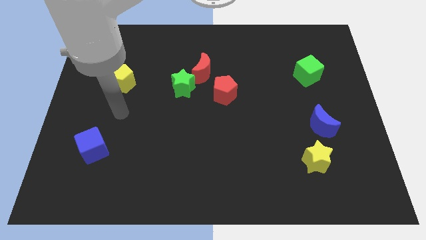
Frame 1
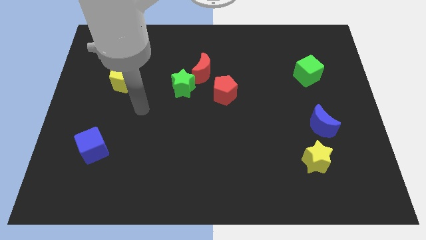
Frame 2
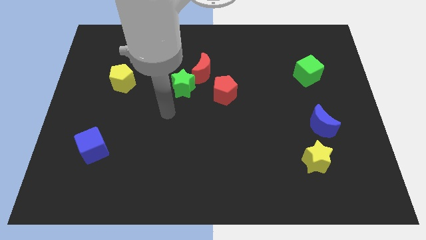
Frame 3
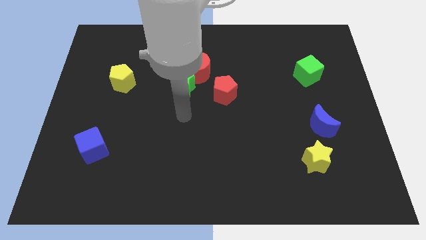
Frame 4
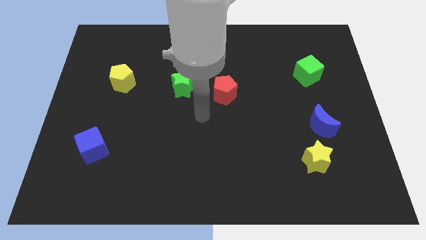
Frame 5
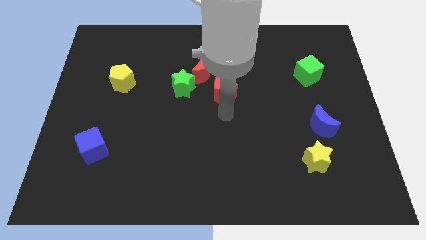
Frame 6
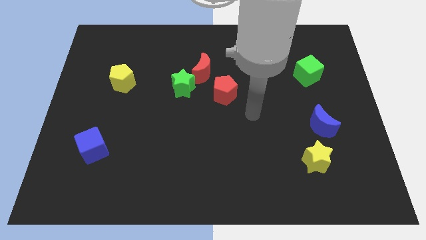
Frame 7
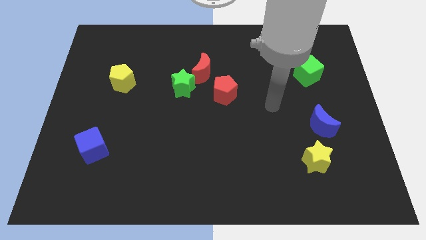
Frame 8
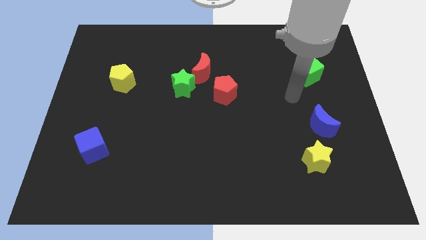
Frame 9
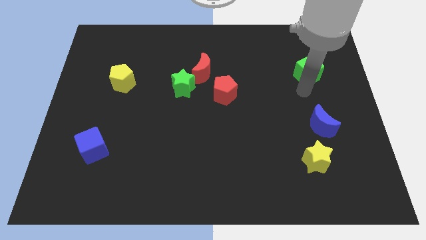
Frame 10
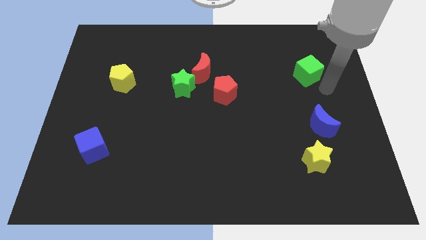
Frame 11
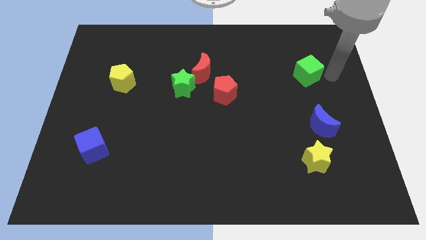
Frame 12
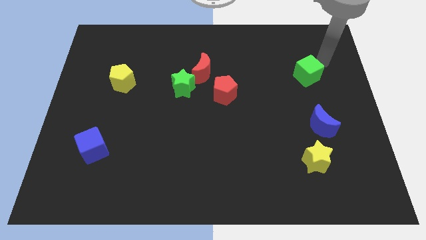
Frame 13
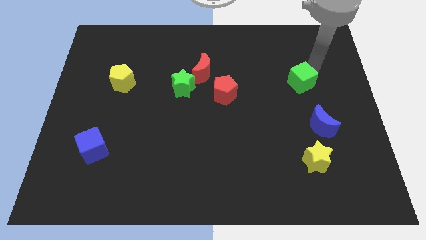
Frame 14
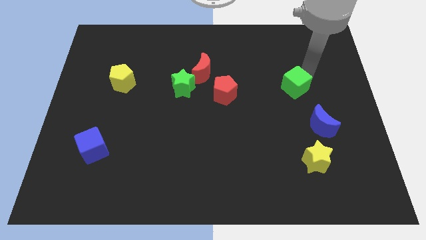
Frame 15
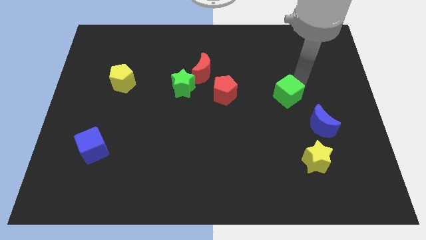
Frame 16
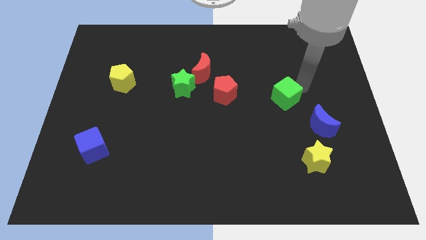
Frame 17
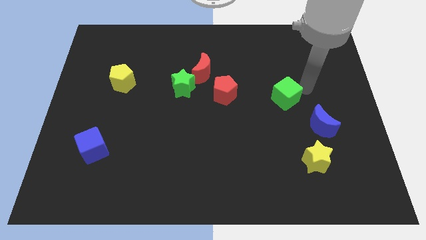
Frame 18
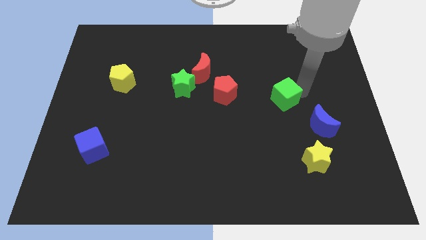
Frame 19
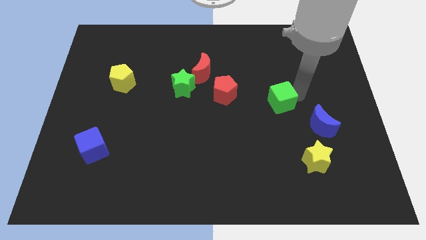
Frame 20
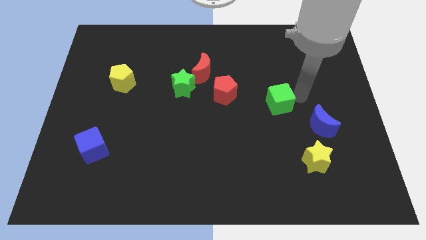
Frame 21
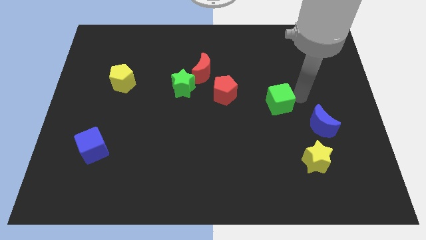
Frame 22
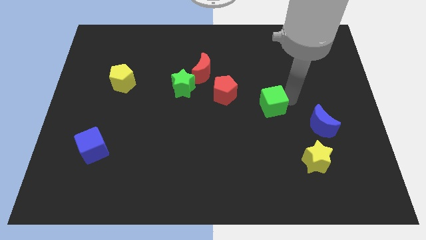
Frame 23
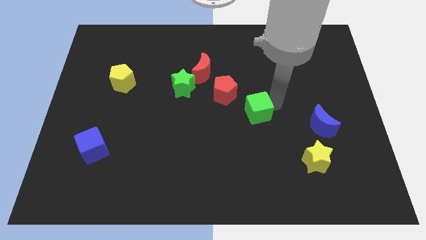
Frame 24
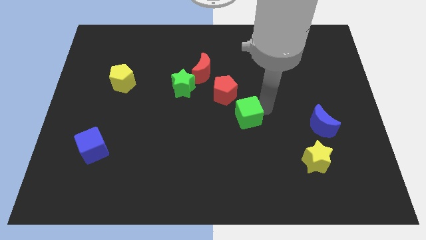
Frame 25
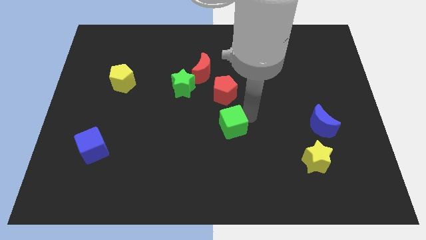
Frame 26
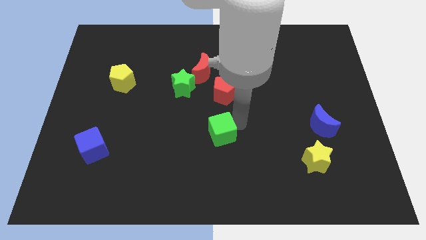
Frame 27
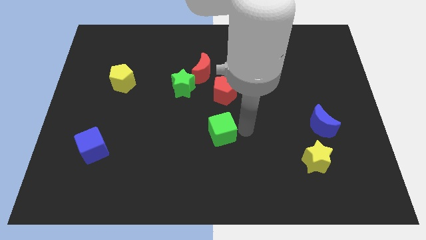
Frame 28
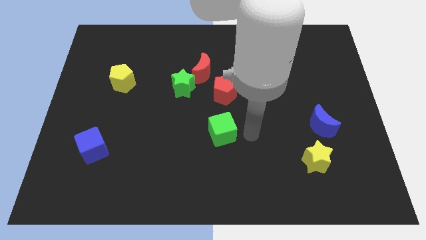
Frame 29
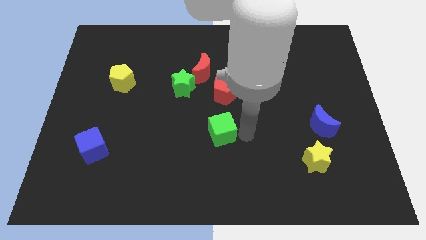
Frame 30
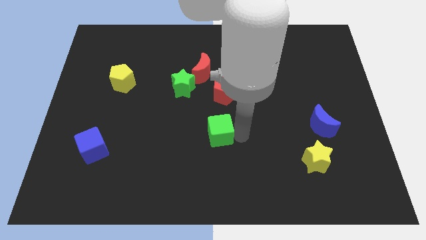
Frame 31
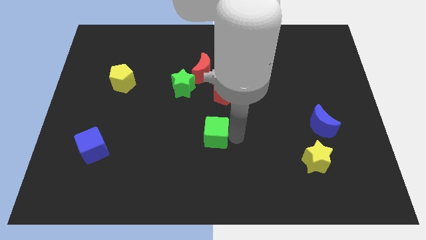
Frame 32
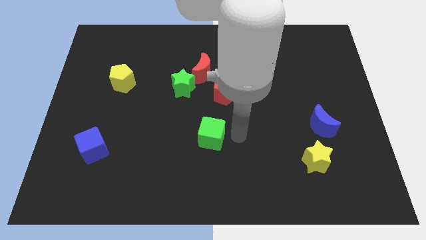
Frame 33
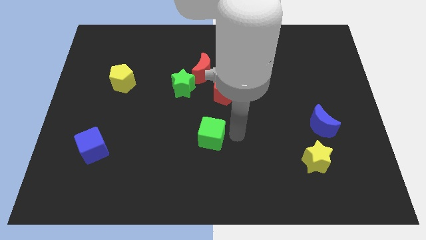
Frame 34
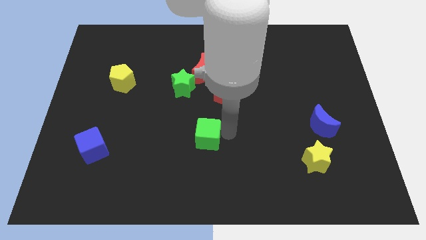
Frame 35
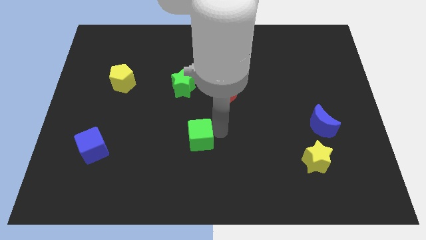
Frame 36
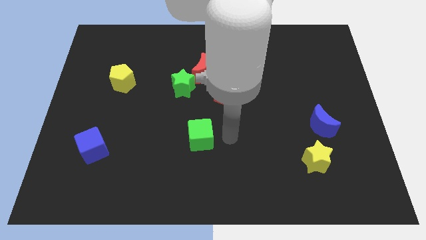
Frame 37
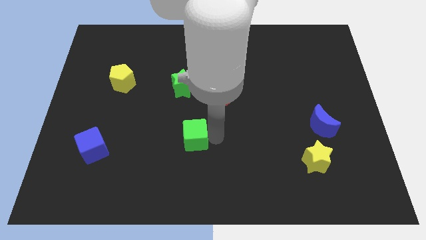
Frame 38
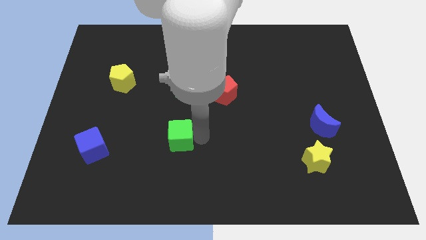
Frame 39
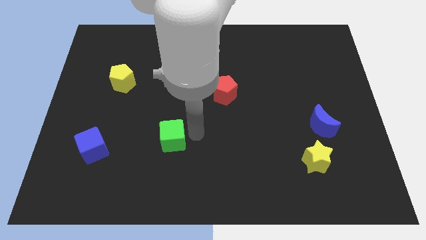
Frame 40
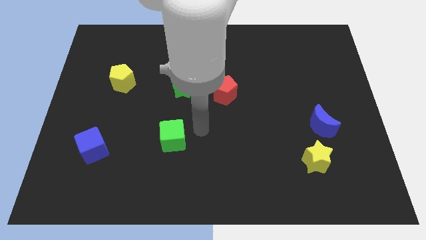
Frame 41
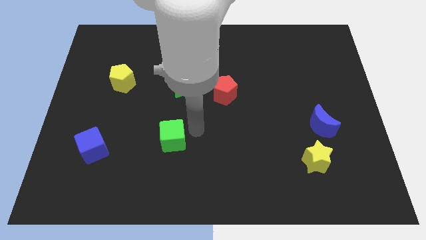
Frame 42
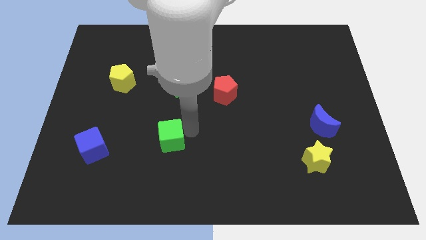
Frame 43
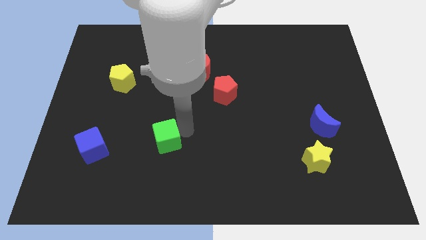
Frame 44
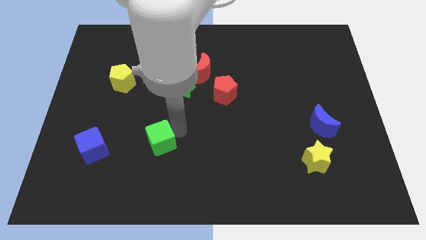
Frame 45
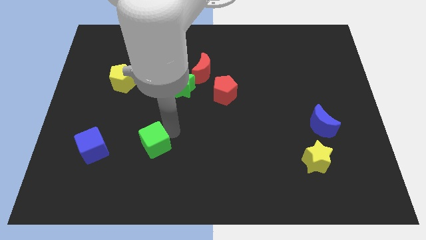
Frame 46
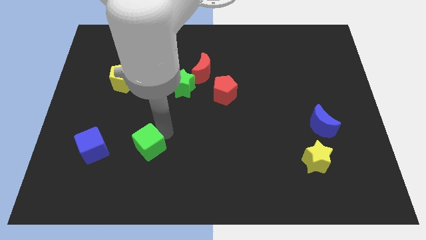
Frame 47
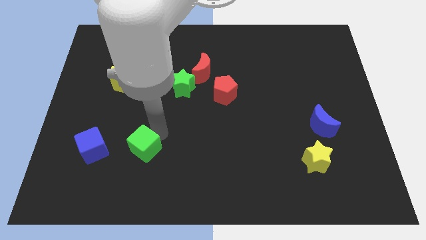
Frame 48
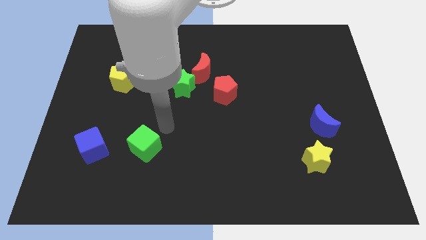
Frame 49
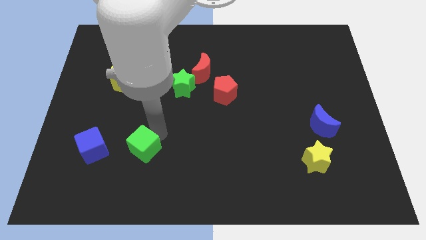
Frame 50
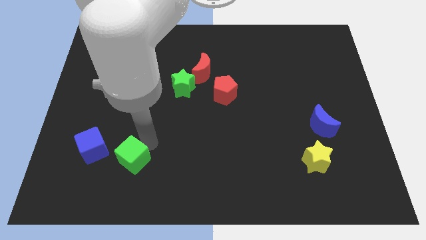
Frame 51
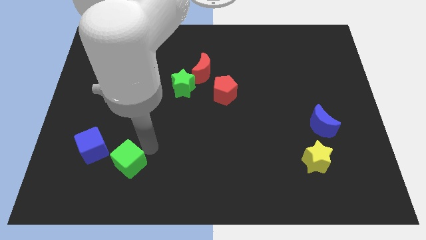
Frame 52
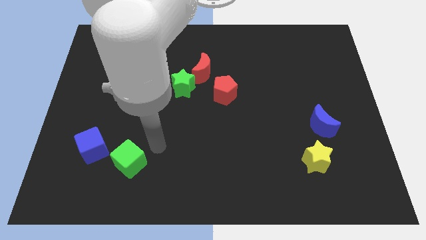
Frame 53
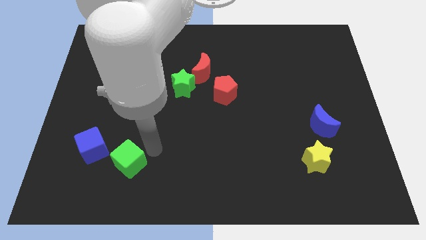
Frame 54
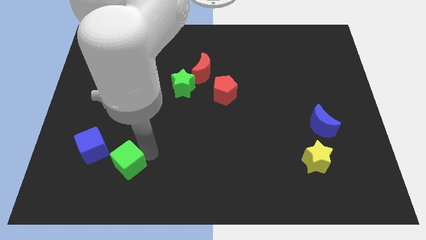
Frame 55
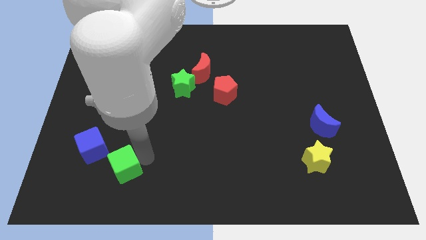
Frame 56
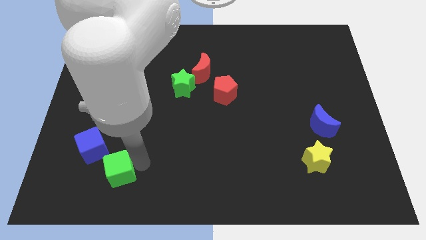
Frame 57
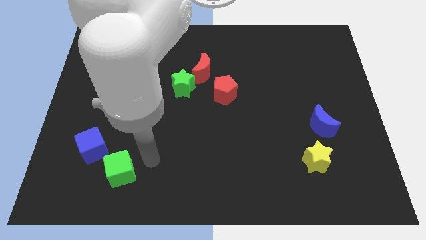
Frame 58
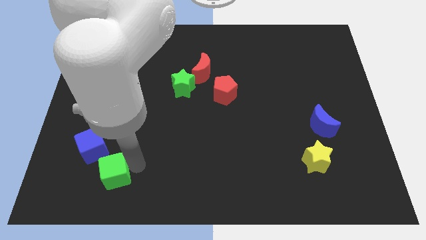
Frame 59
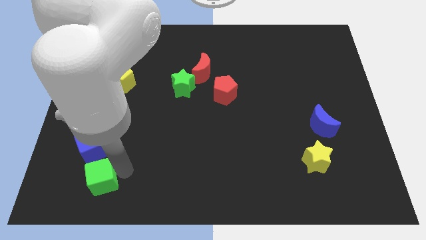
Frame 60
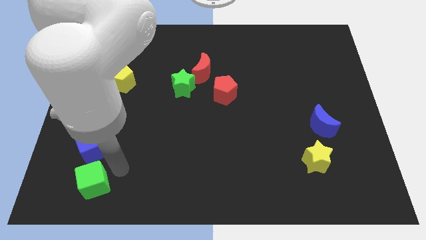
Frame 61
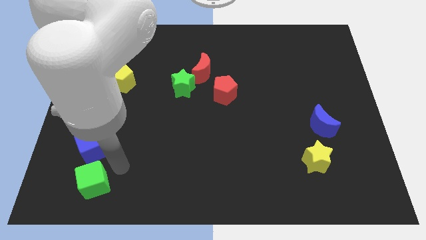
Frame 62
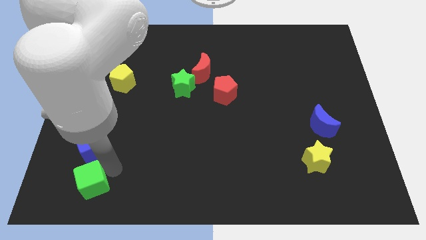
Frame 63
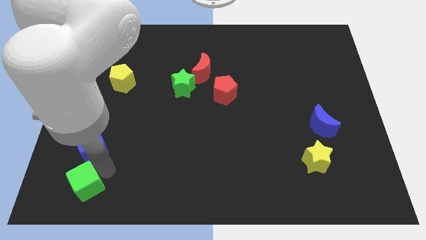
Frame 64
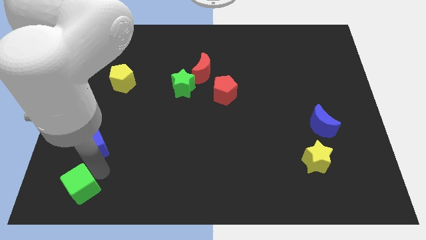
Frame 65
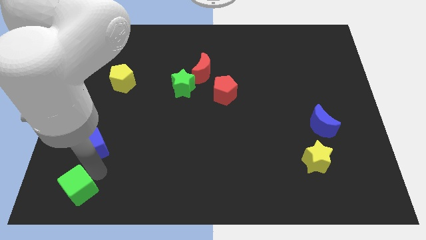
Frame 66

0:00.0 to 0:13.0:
push the green cube to the bottom left of the board
